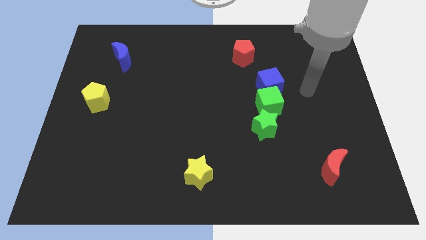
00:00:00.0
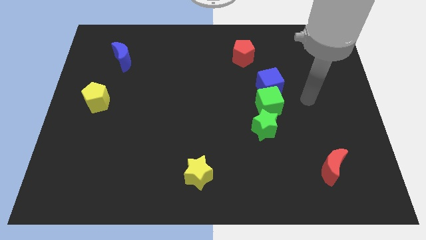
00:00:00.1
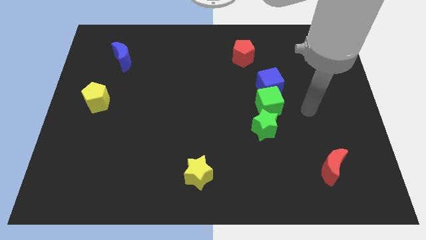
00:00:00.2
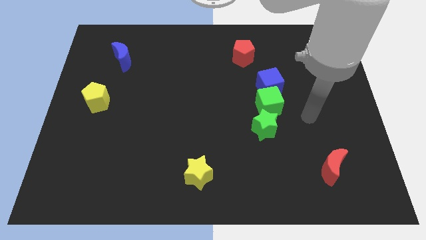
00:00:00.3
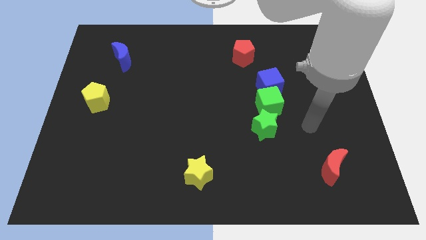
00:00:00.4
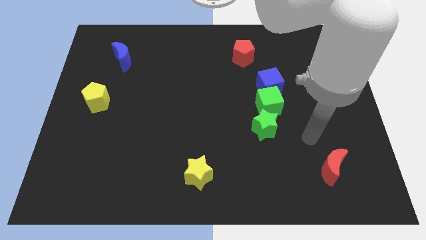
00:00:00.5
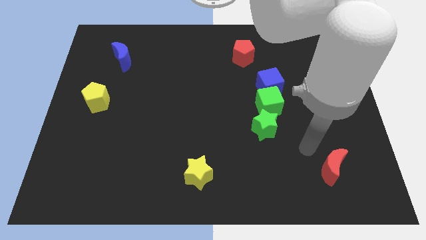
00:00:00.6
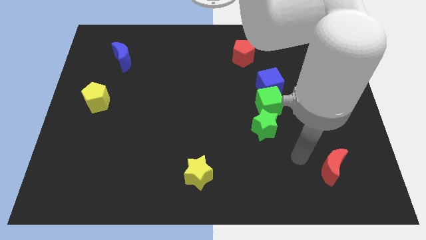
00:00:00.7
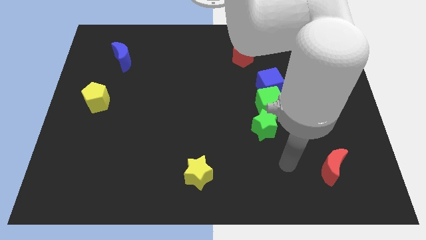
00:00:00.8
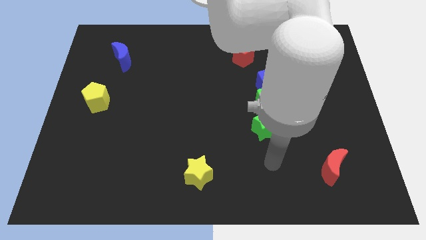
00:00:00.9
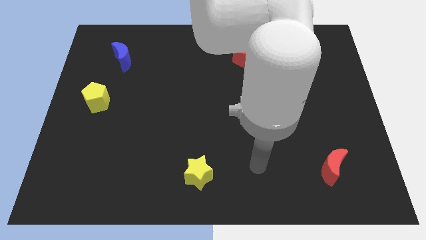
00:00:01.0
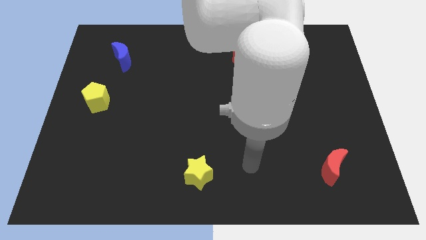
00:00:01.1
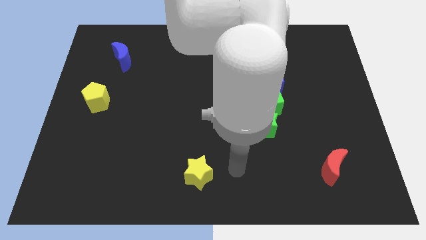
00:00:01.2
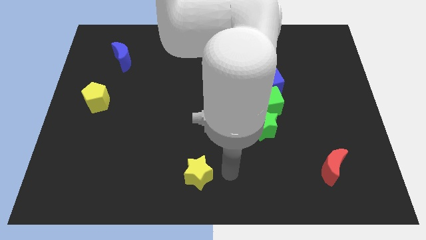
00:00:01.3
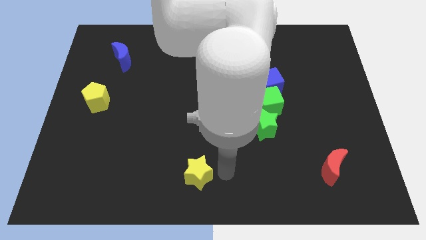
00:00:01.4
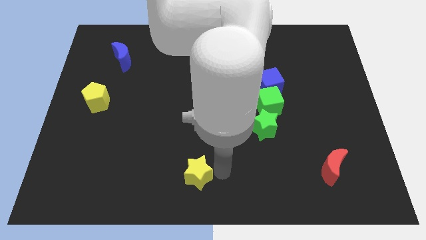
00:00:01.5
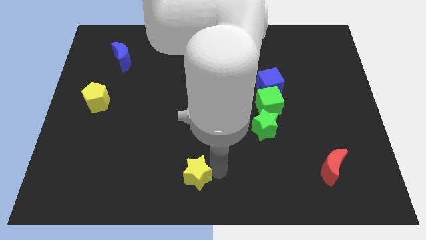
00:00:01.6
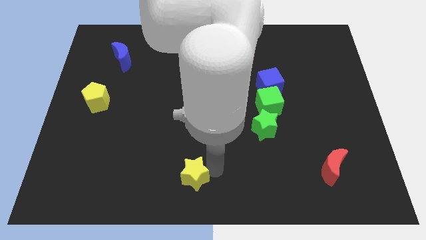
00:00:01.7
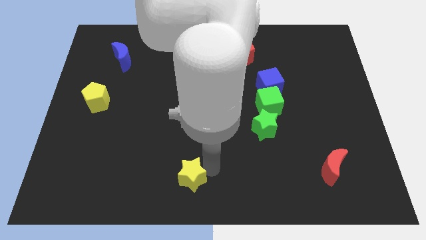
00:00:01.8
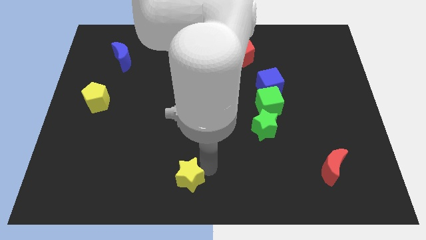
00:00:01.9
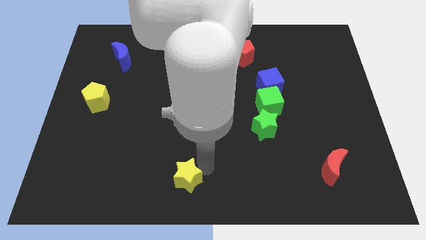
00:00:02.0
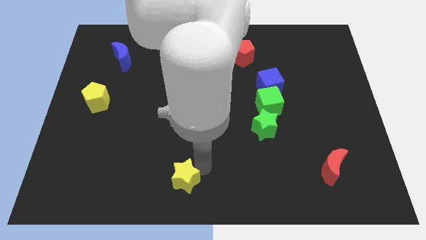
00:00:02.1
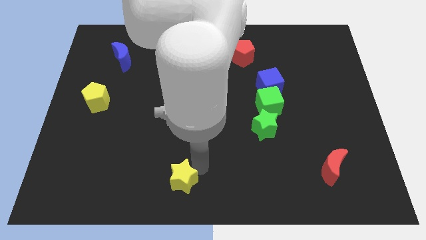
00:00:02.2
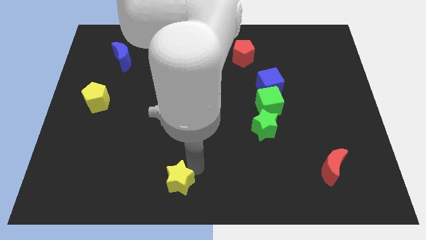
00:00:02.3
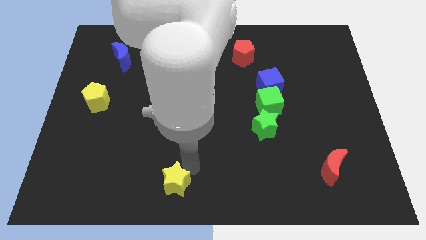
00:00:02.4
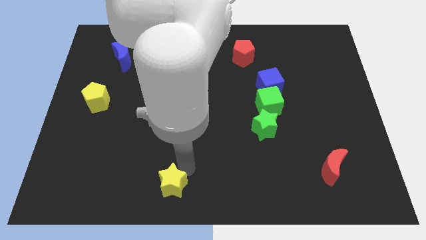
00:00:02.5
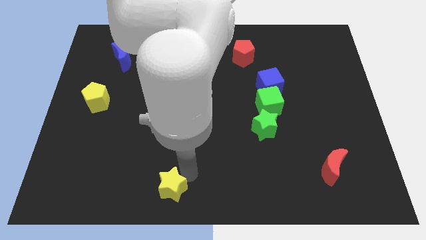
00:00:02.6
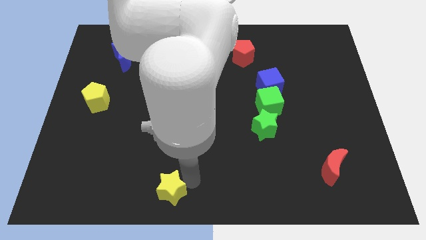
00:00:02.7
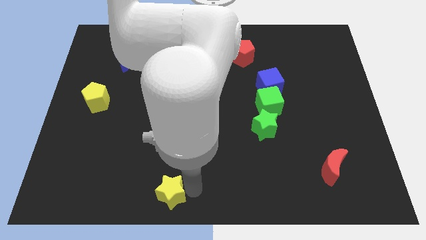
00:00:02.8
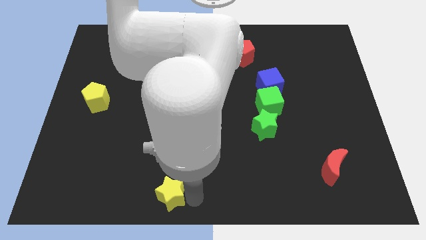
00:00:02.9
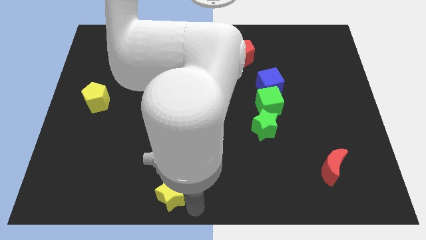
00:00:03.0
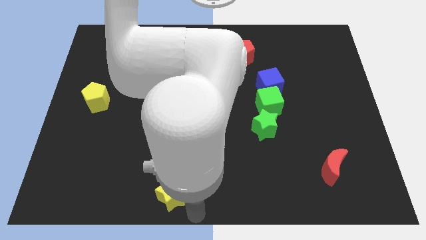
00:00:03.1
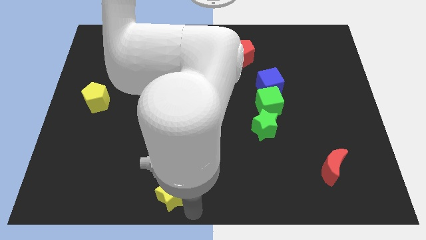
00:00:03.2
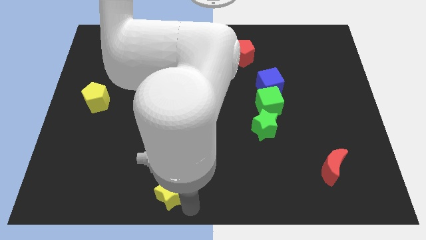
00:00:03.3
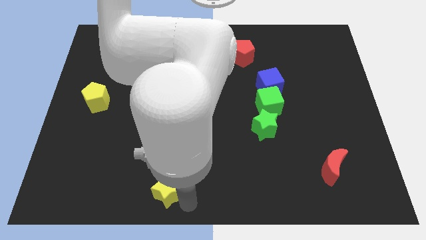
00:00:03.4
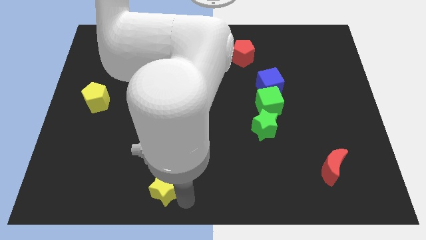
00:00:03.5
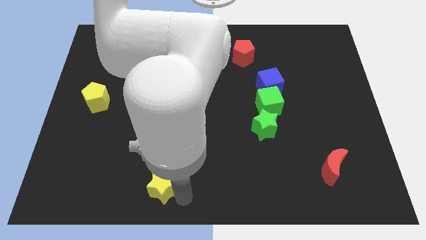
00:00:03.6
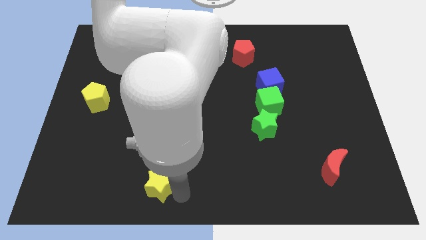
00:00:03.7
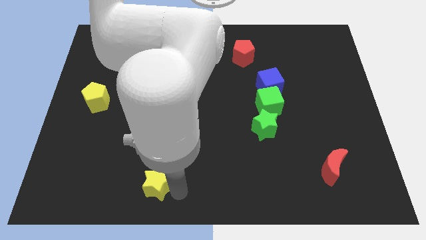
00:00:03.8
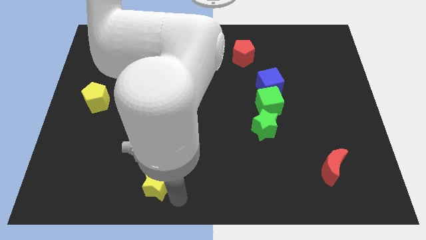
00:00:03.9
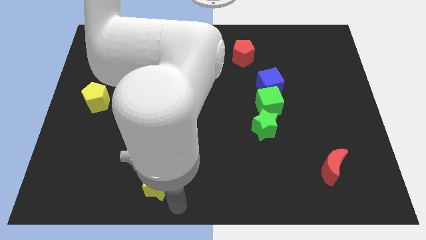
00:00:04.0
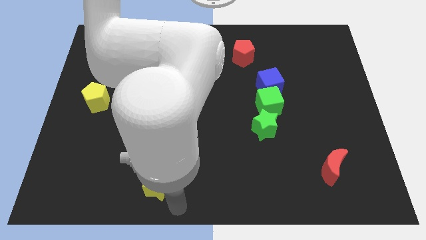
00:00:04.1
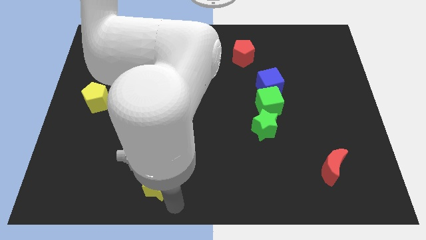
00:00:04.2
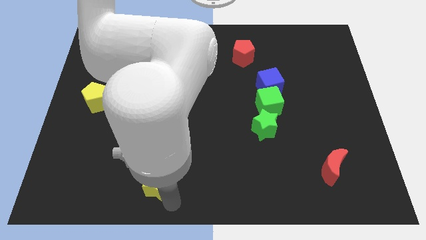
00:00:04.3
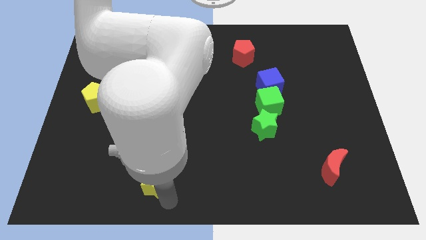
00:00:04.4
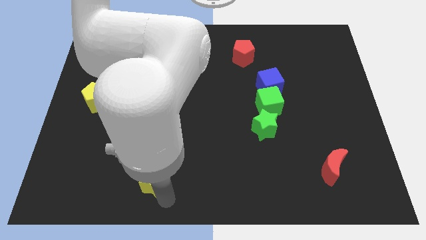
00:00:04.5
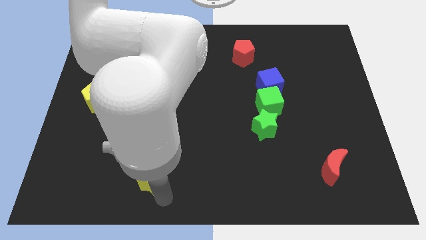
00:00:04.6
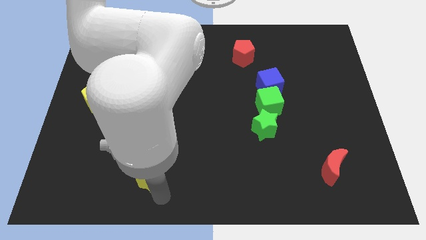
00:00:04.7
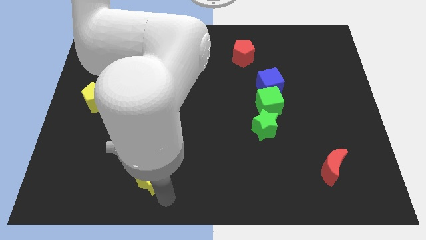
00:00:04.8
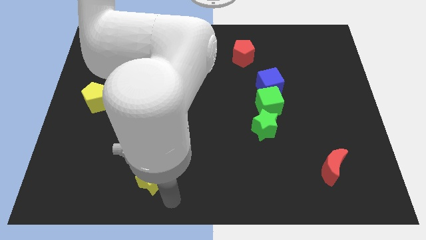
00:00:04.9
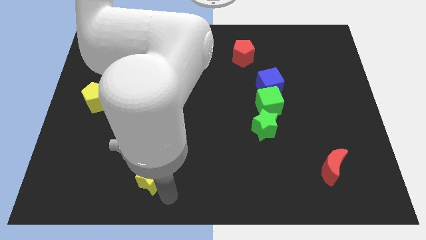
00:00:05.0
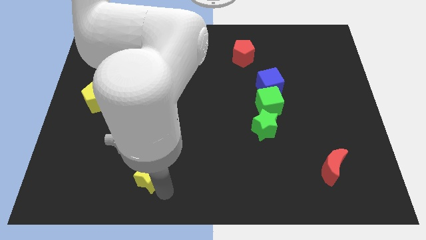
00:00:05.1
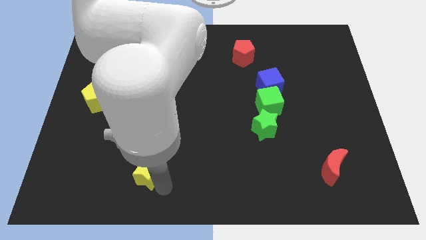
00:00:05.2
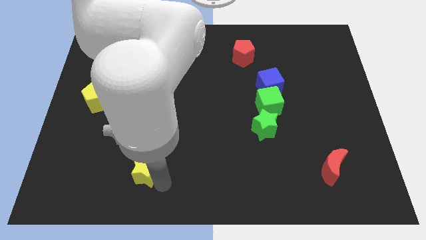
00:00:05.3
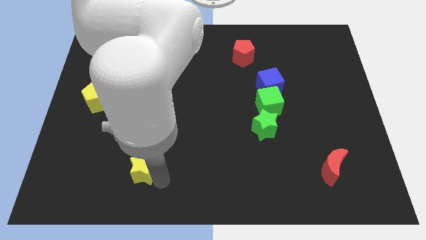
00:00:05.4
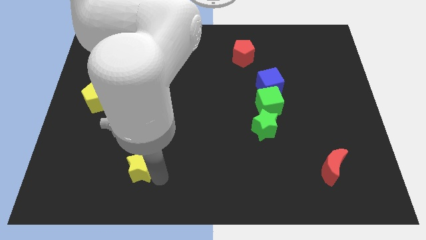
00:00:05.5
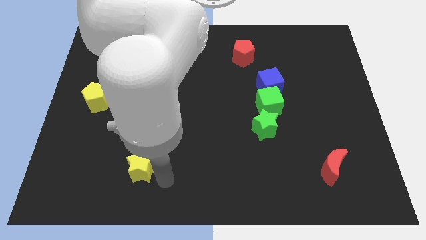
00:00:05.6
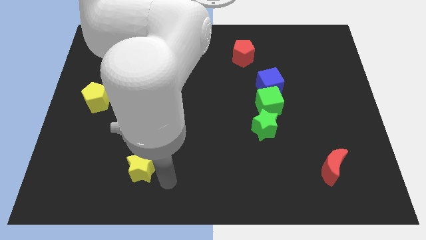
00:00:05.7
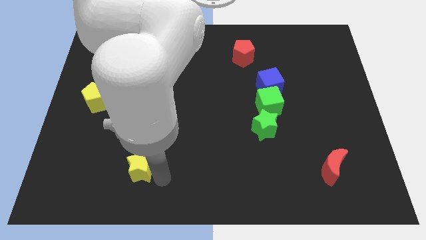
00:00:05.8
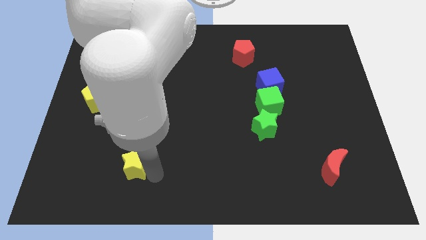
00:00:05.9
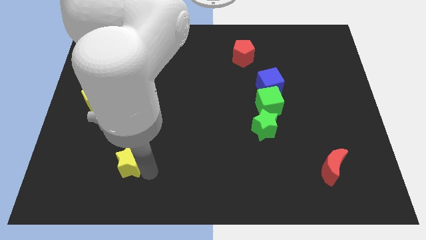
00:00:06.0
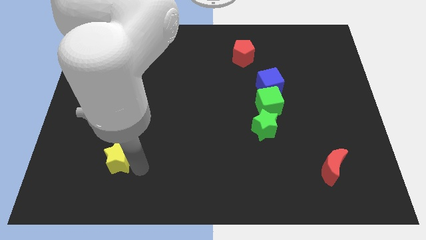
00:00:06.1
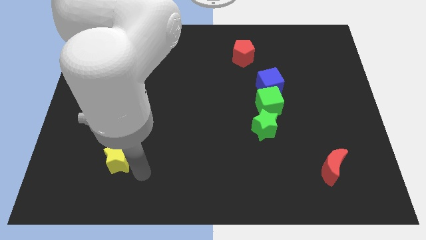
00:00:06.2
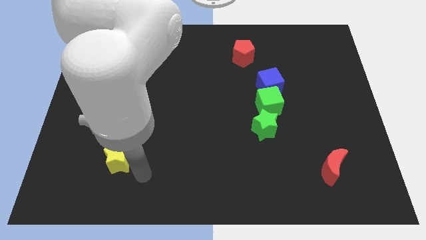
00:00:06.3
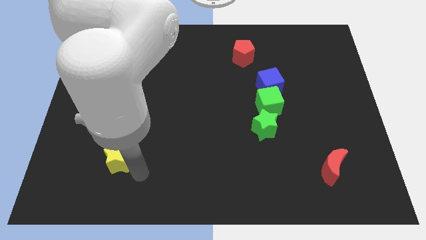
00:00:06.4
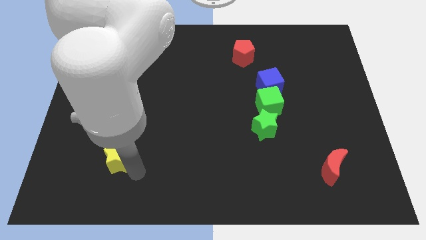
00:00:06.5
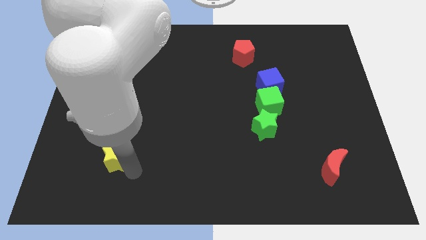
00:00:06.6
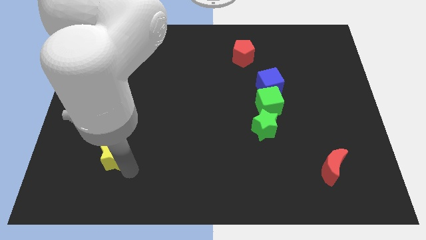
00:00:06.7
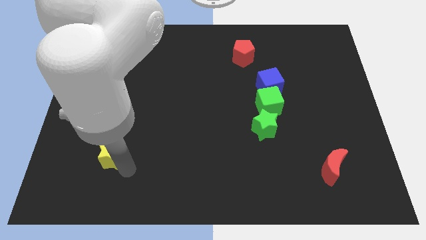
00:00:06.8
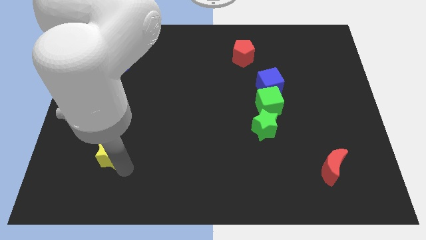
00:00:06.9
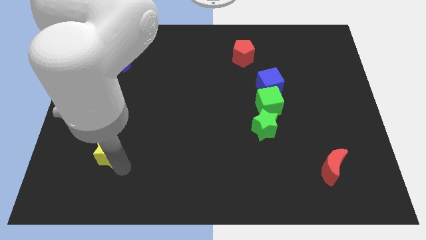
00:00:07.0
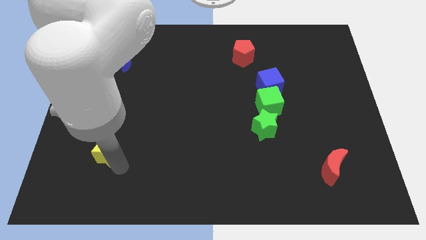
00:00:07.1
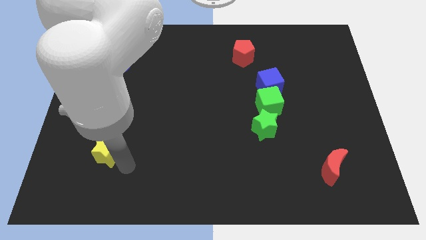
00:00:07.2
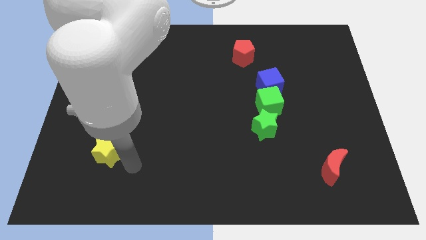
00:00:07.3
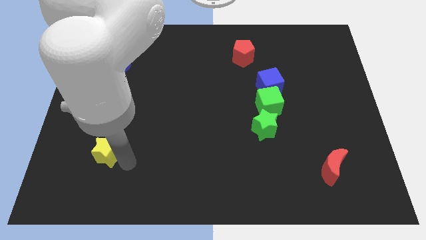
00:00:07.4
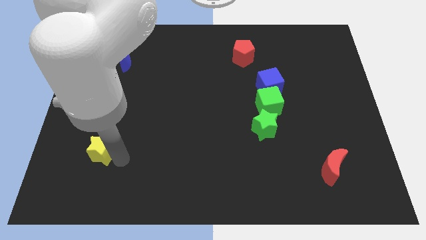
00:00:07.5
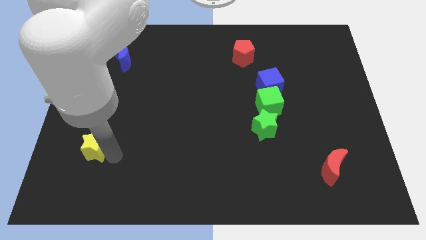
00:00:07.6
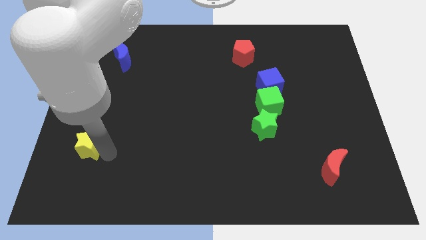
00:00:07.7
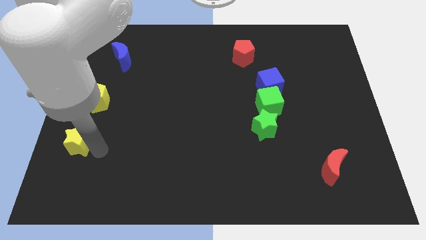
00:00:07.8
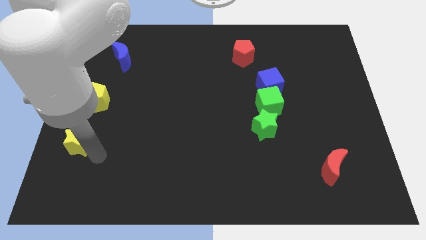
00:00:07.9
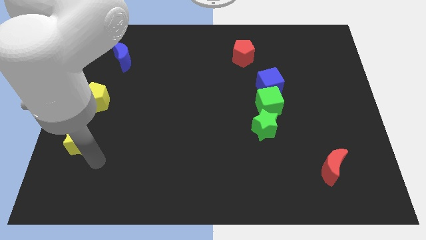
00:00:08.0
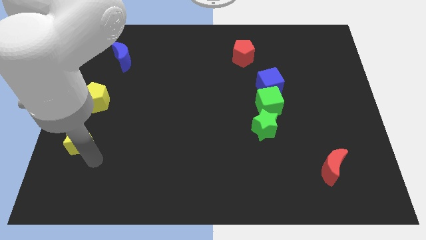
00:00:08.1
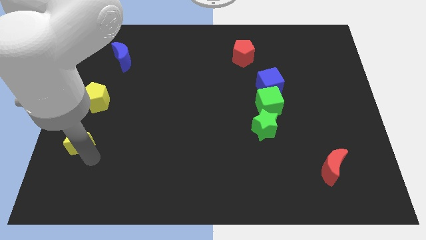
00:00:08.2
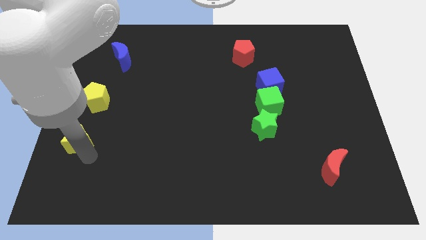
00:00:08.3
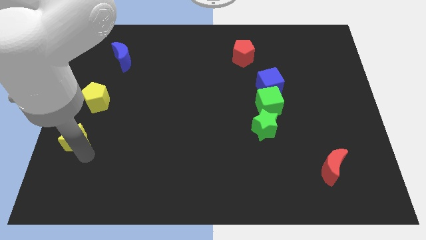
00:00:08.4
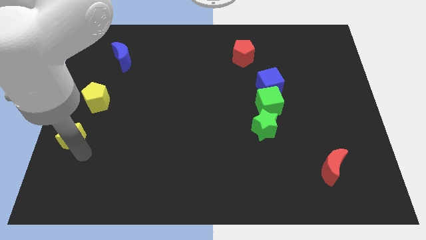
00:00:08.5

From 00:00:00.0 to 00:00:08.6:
slide the yellow star to the left side
